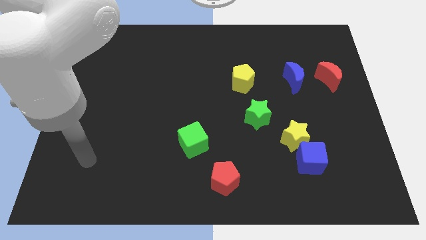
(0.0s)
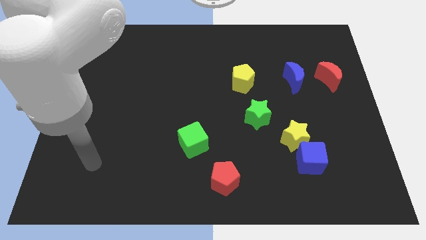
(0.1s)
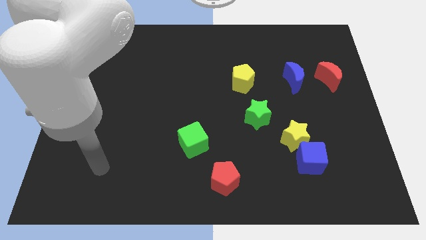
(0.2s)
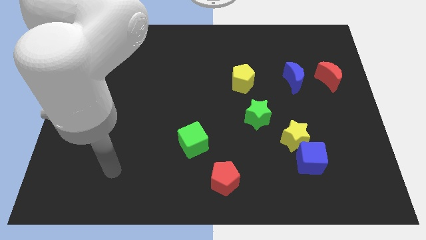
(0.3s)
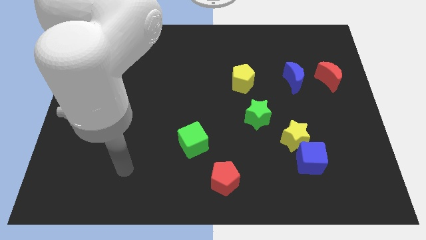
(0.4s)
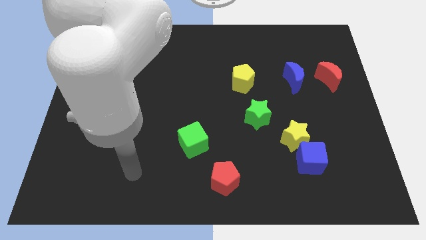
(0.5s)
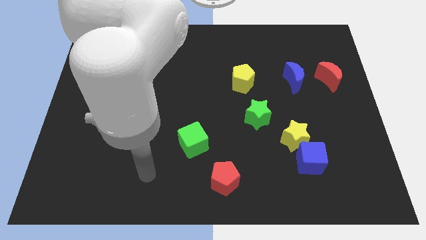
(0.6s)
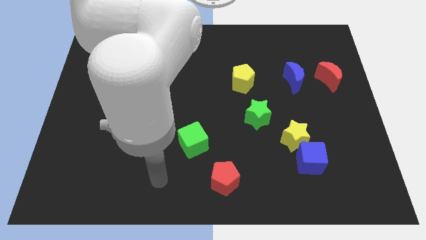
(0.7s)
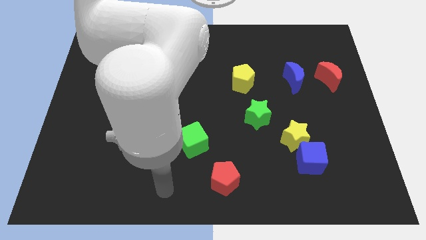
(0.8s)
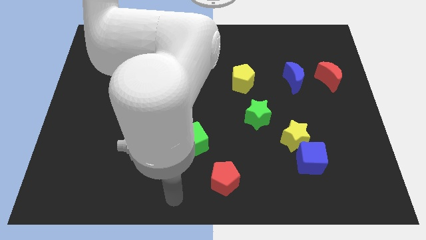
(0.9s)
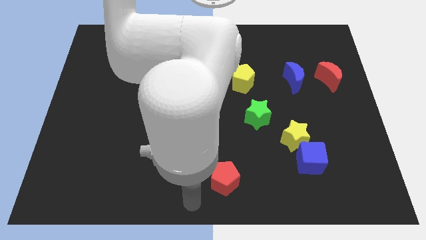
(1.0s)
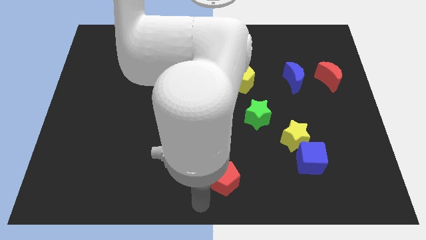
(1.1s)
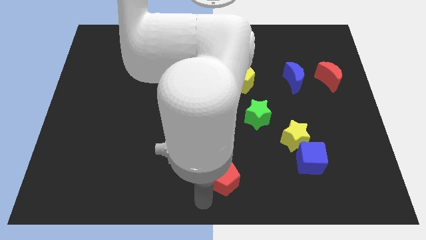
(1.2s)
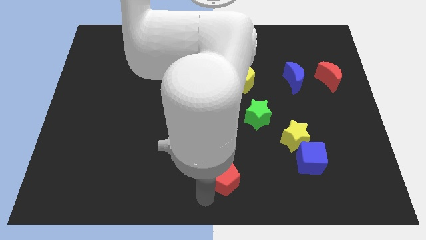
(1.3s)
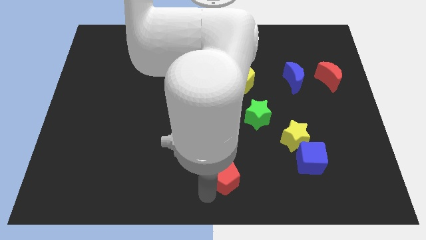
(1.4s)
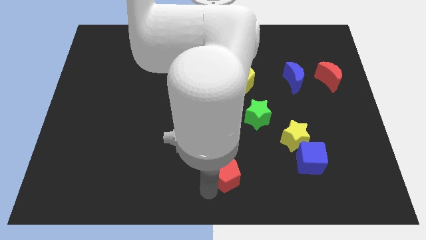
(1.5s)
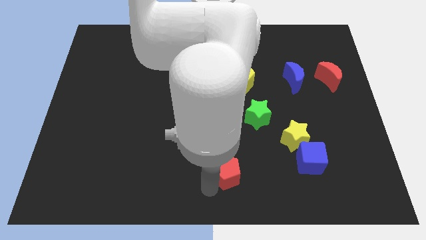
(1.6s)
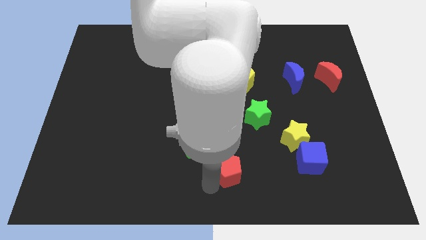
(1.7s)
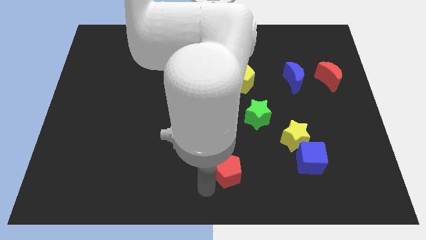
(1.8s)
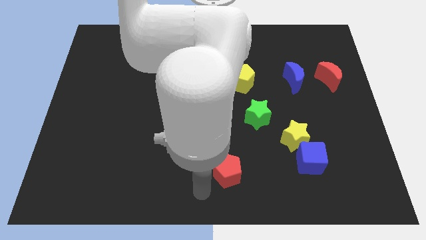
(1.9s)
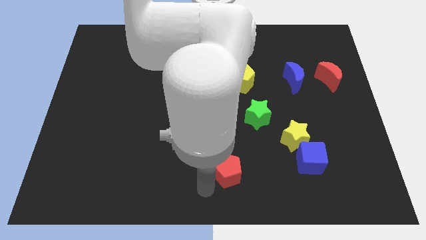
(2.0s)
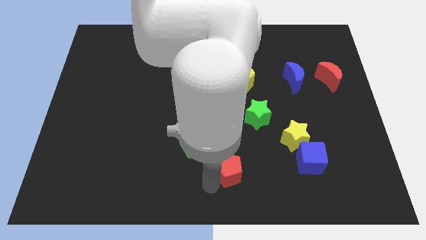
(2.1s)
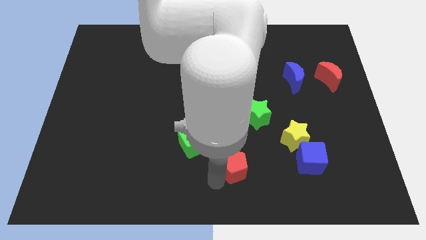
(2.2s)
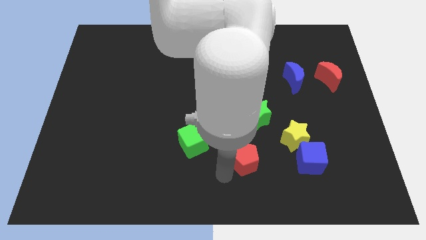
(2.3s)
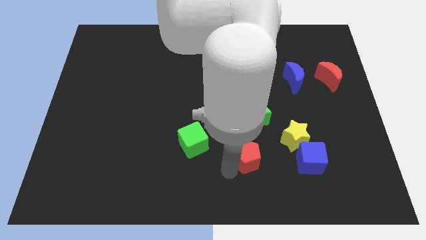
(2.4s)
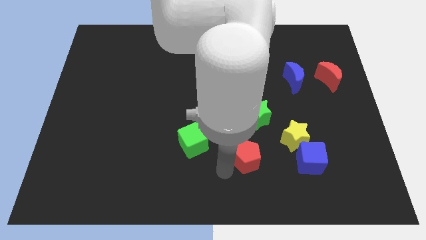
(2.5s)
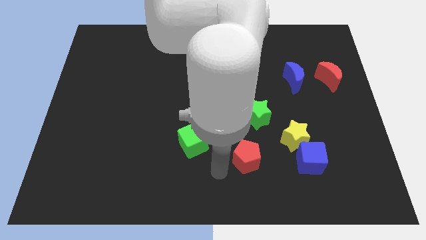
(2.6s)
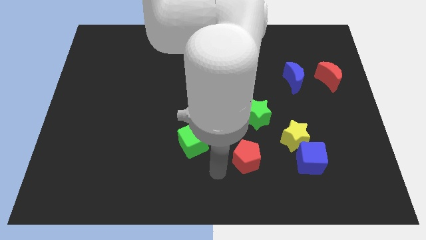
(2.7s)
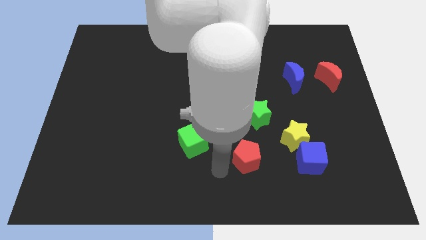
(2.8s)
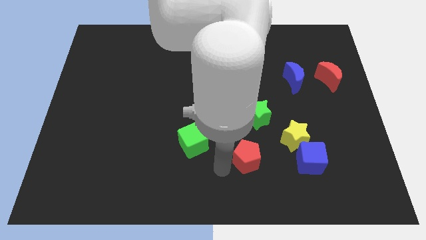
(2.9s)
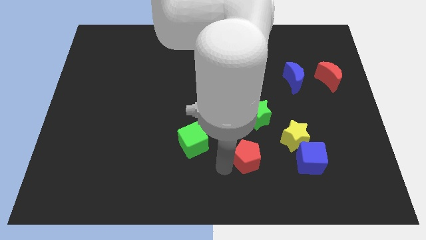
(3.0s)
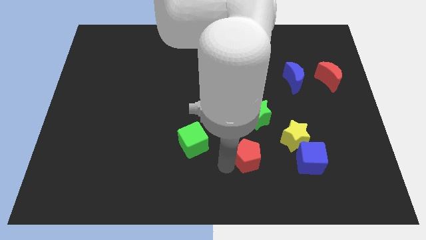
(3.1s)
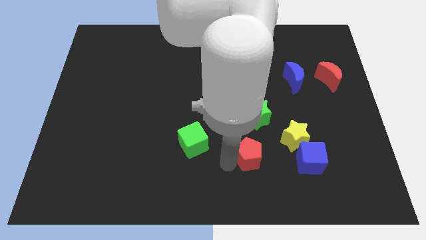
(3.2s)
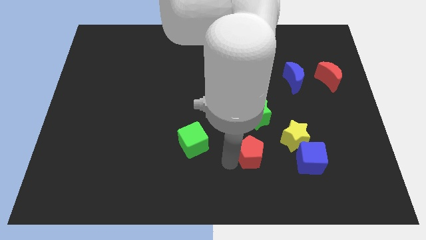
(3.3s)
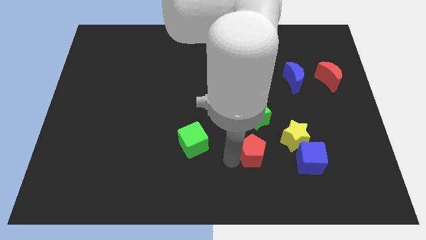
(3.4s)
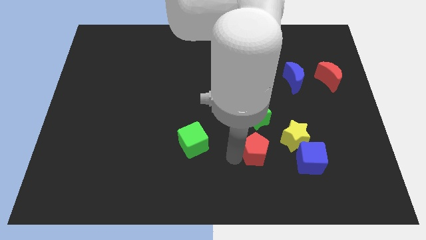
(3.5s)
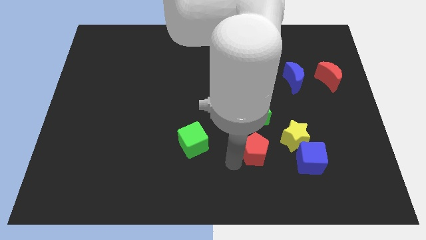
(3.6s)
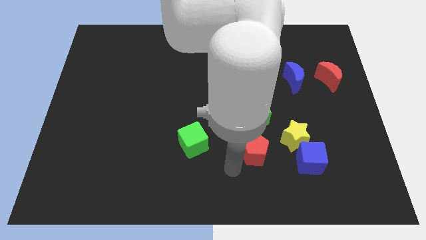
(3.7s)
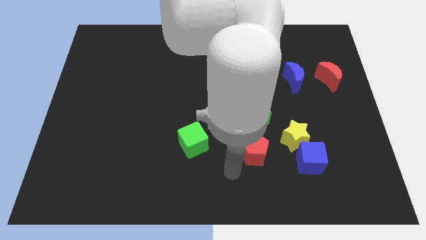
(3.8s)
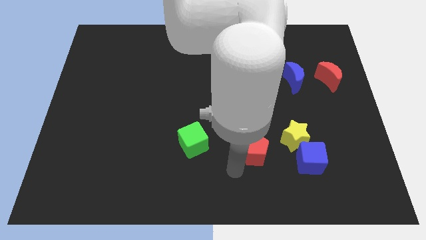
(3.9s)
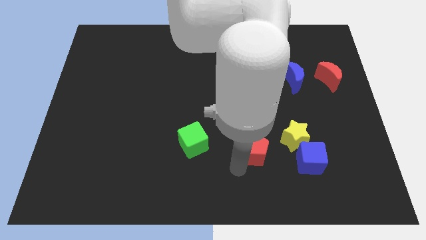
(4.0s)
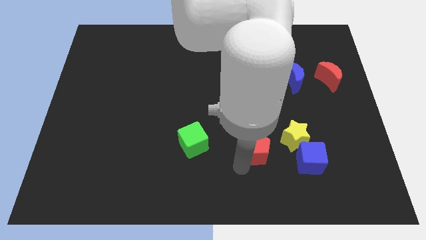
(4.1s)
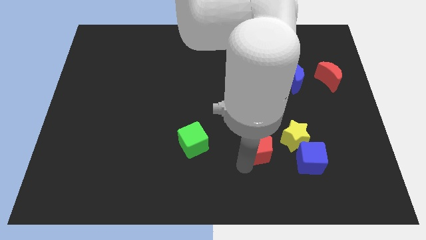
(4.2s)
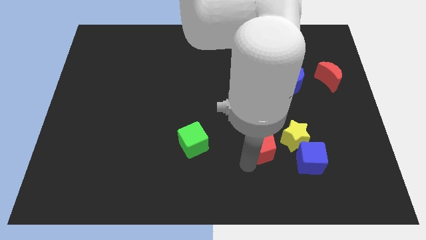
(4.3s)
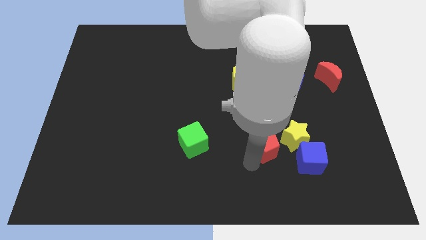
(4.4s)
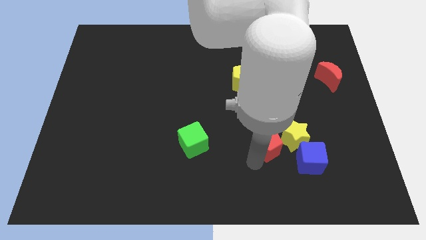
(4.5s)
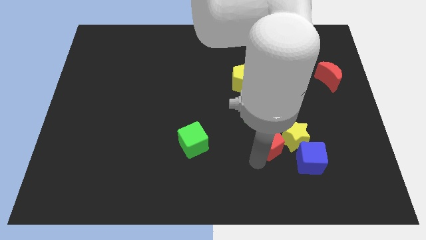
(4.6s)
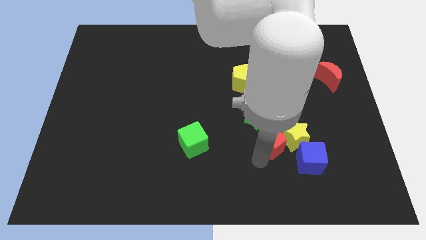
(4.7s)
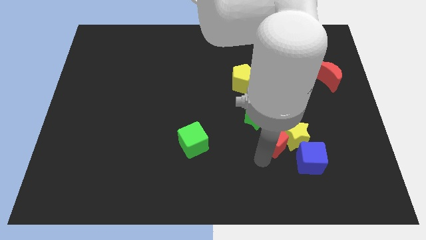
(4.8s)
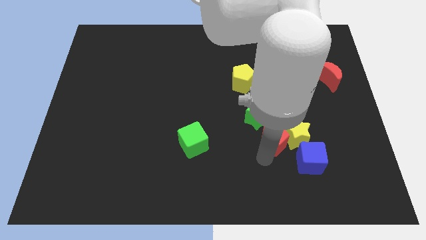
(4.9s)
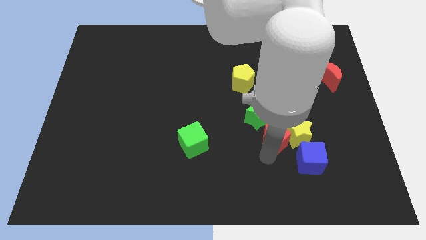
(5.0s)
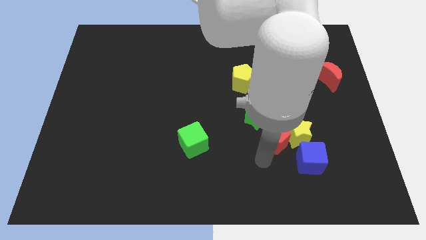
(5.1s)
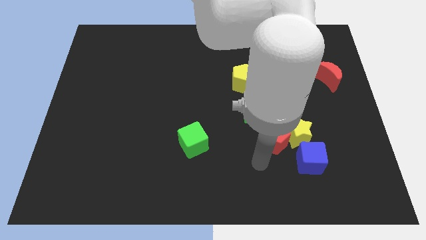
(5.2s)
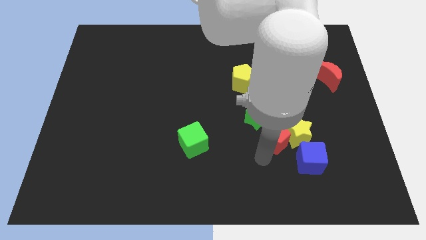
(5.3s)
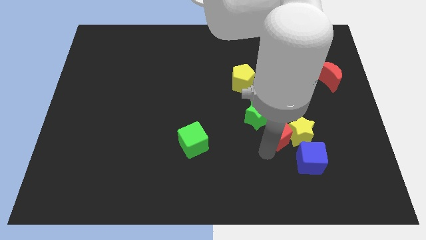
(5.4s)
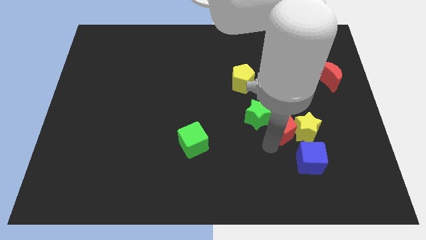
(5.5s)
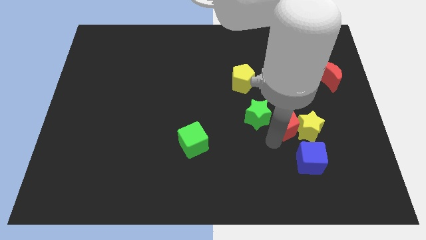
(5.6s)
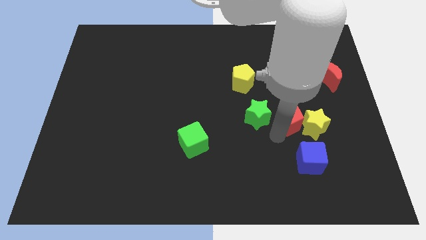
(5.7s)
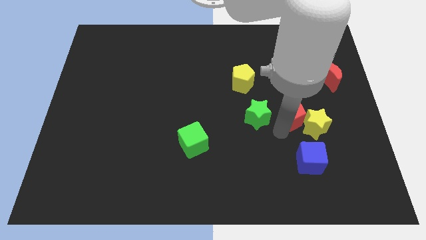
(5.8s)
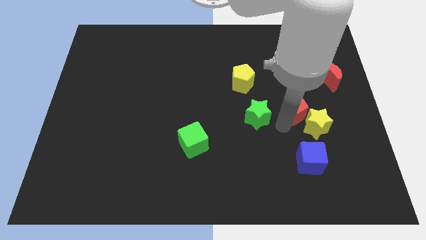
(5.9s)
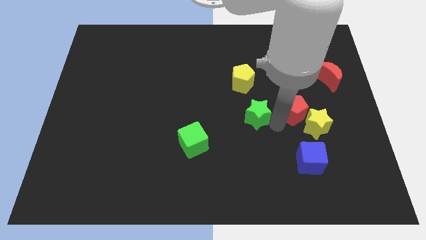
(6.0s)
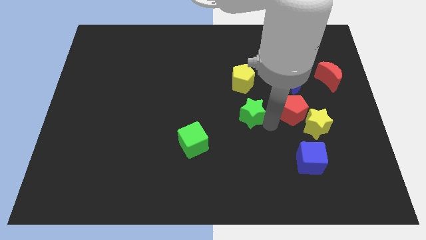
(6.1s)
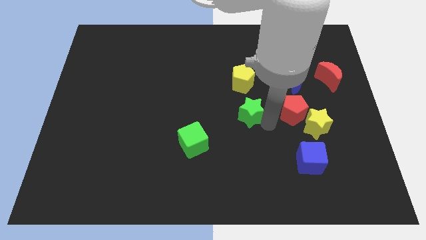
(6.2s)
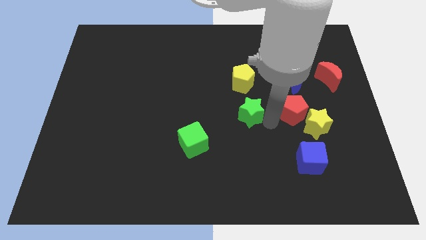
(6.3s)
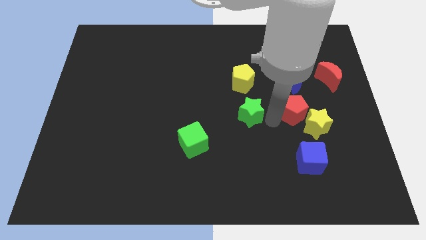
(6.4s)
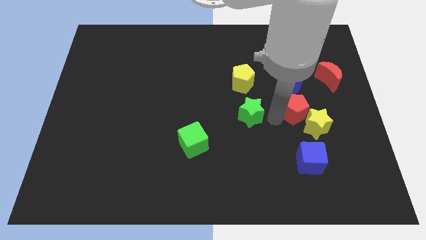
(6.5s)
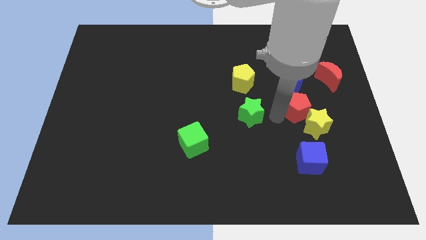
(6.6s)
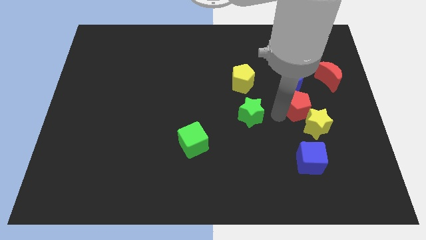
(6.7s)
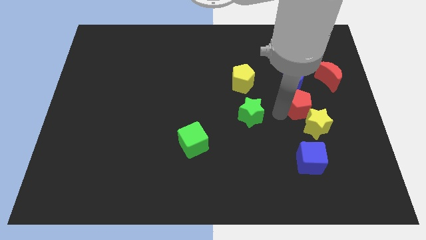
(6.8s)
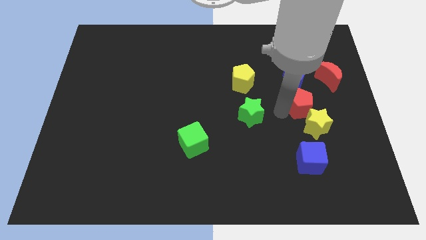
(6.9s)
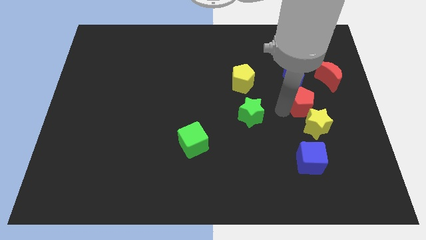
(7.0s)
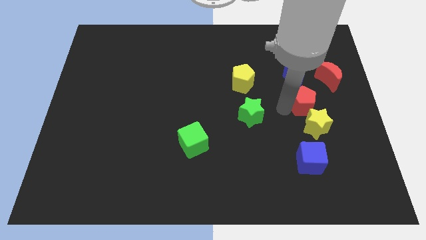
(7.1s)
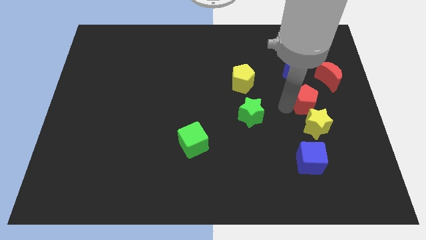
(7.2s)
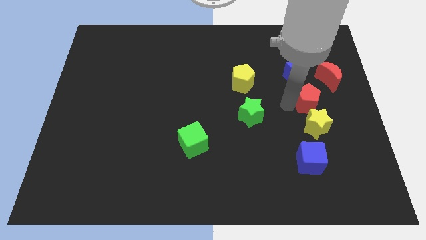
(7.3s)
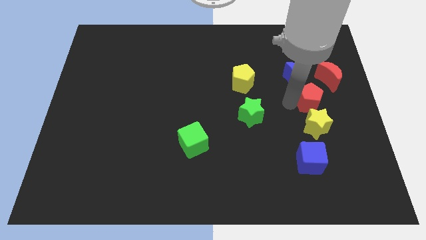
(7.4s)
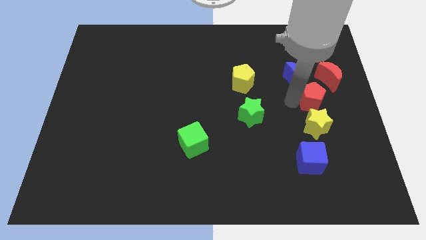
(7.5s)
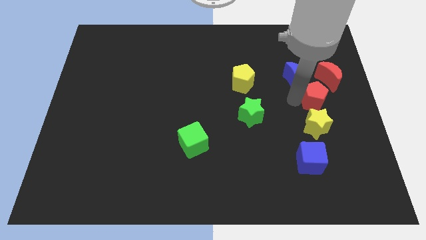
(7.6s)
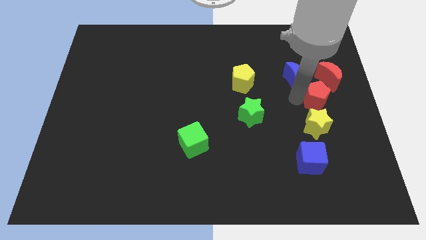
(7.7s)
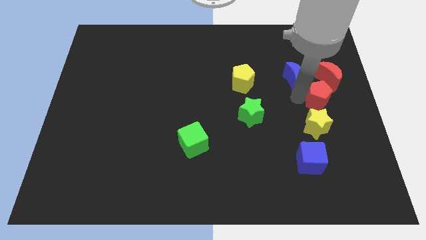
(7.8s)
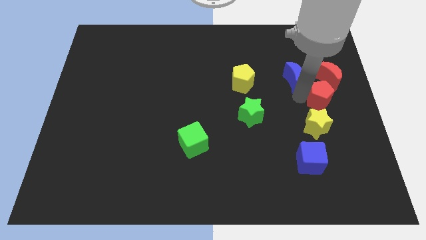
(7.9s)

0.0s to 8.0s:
put the red pentagon to the right side of the board
